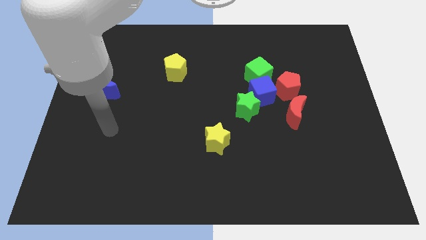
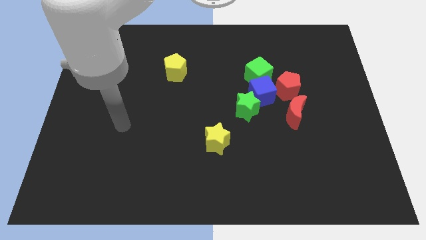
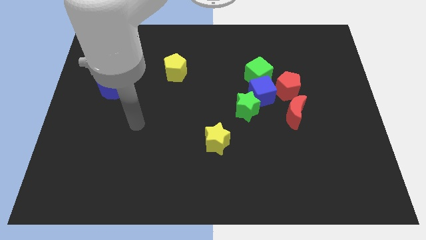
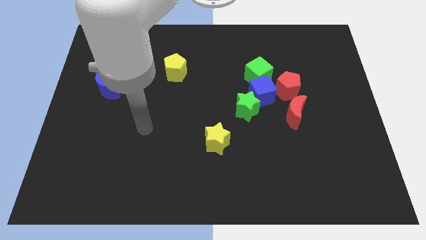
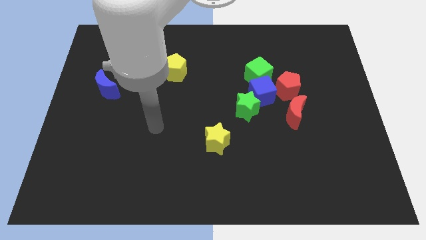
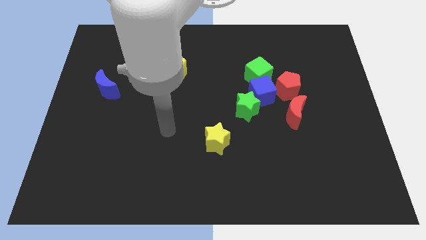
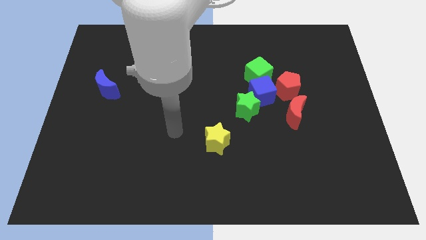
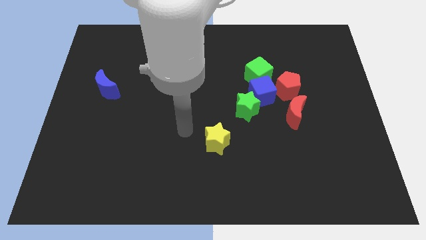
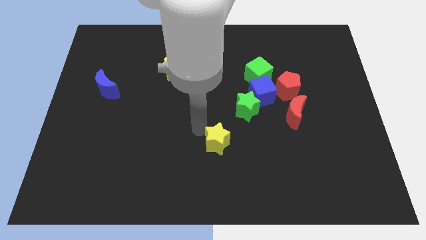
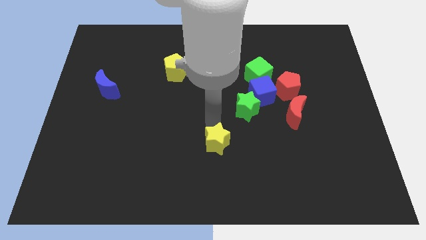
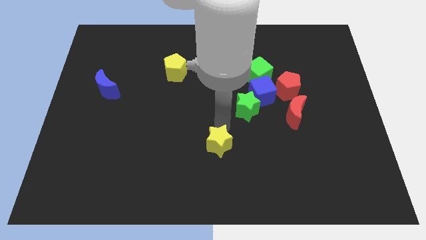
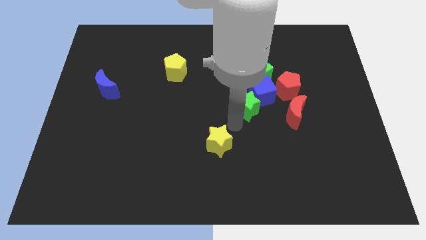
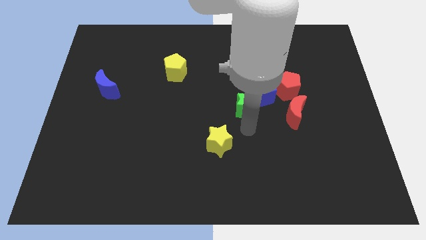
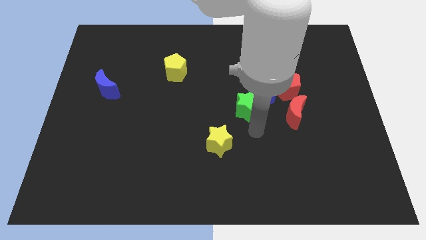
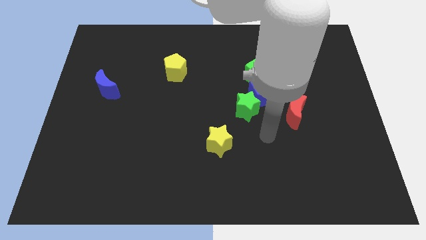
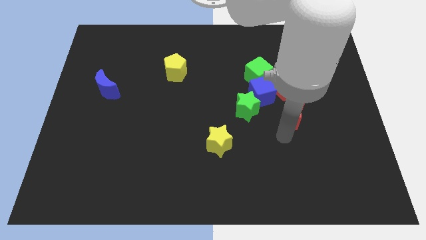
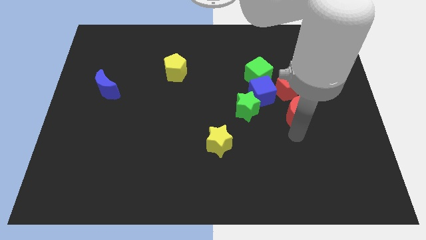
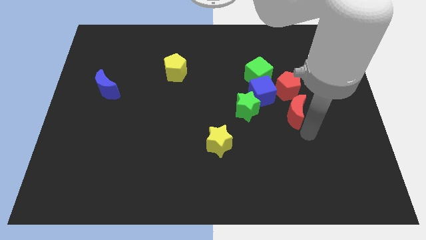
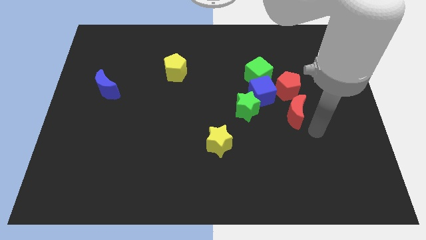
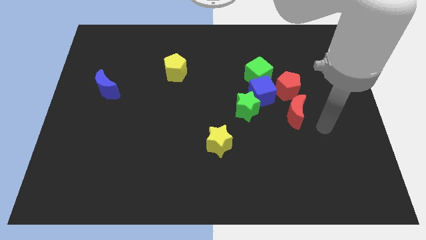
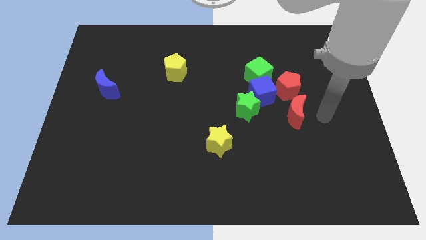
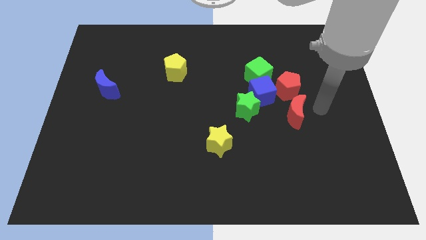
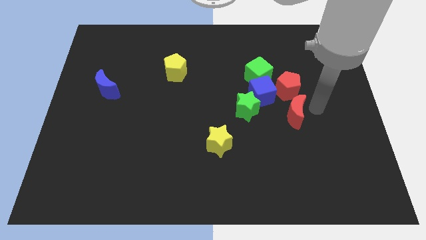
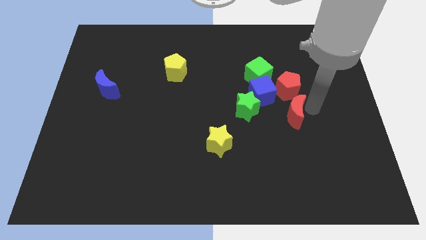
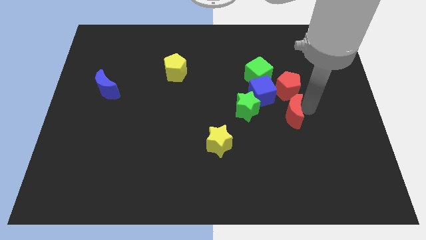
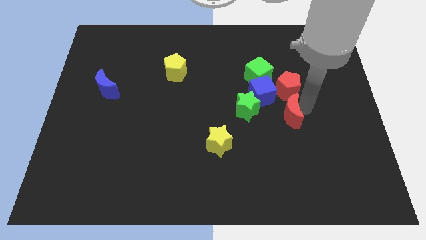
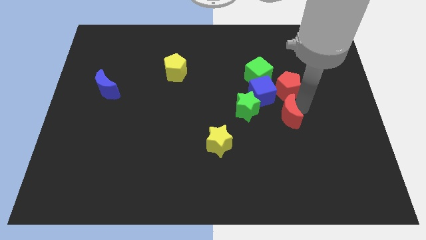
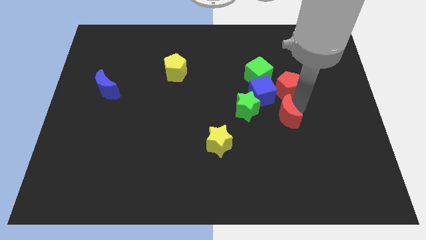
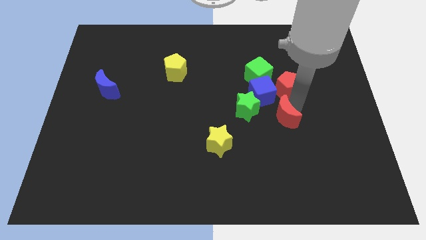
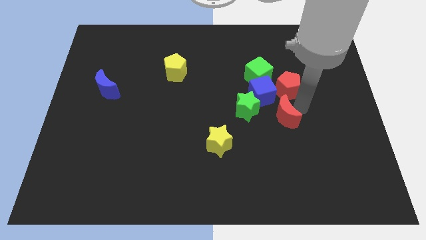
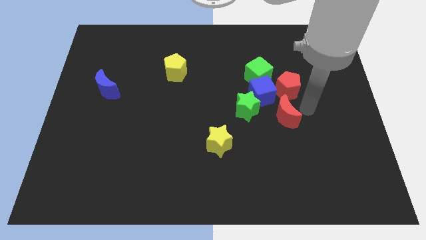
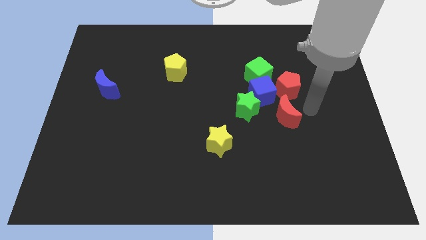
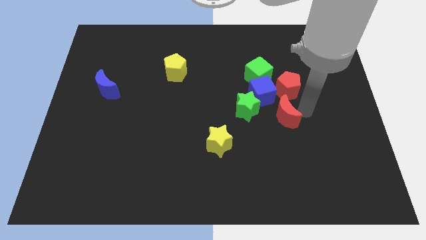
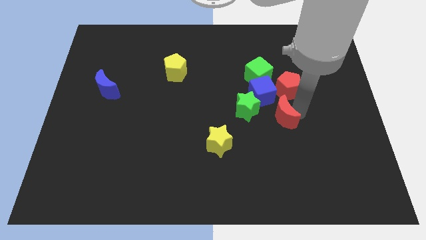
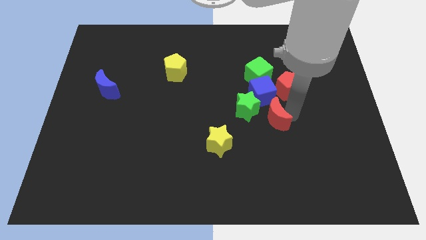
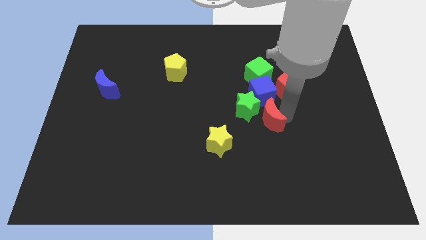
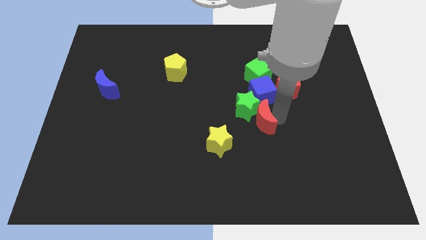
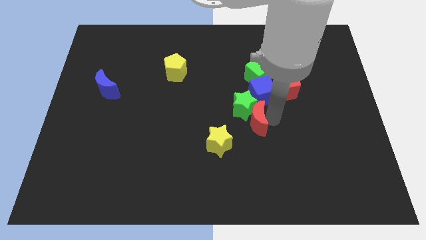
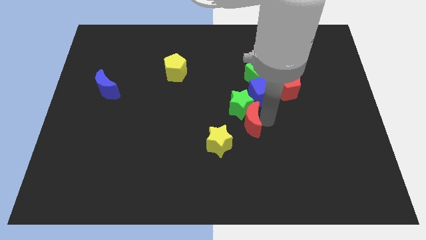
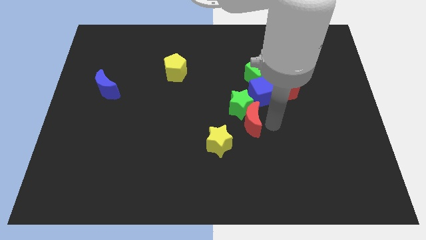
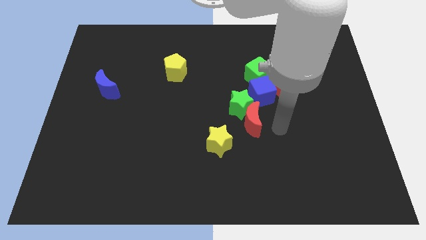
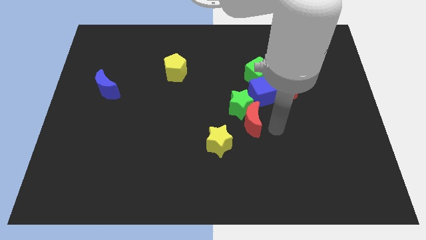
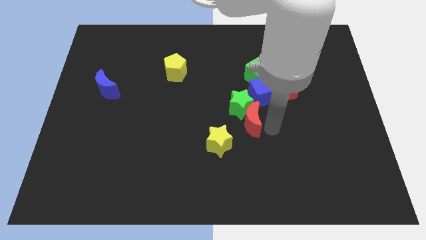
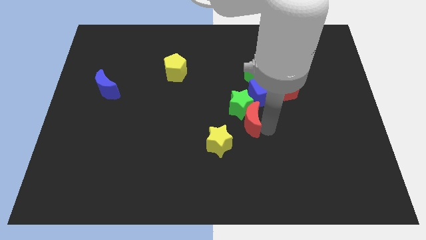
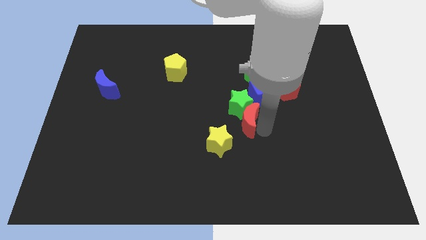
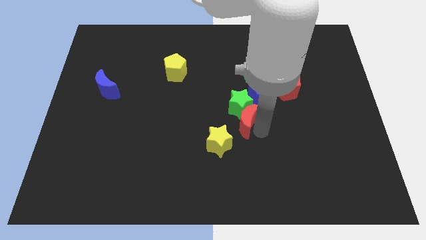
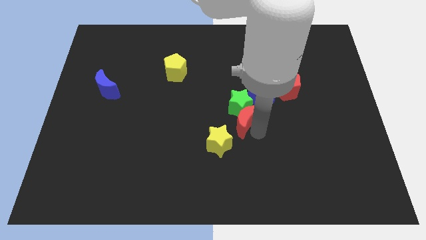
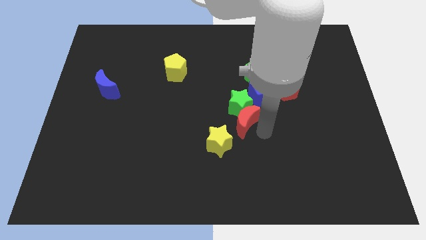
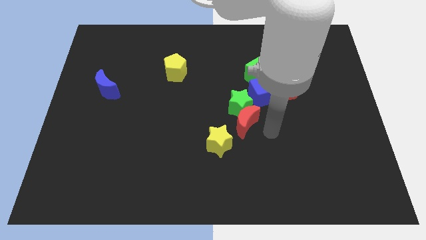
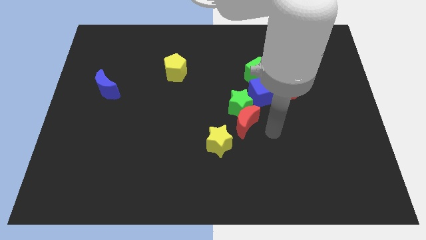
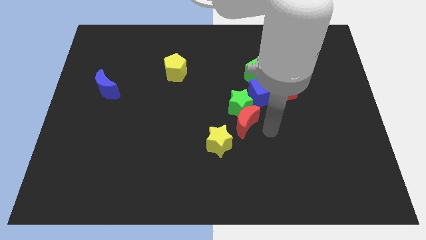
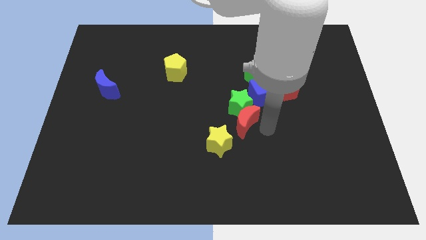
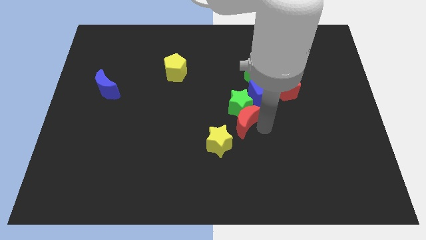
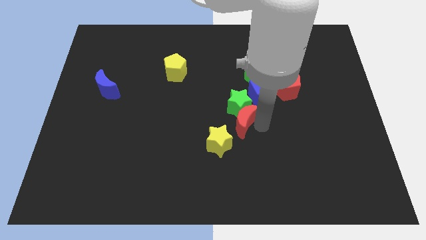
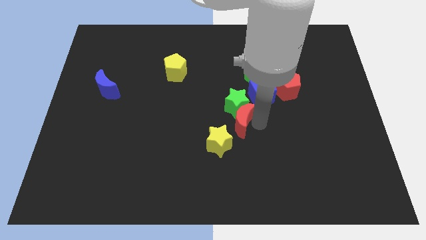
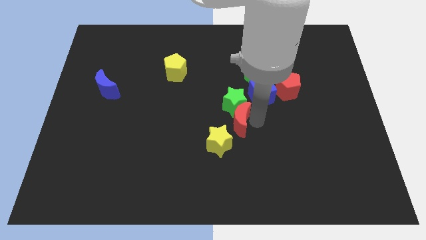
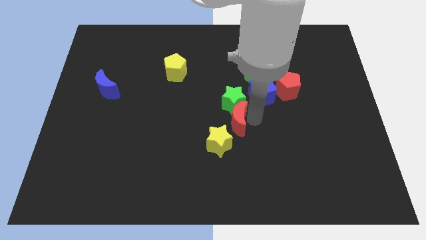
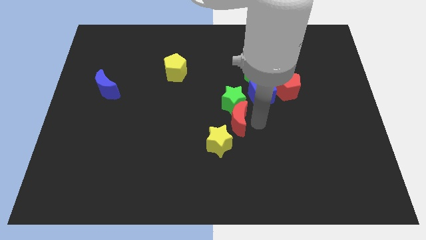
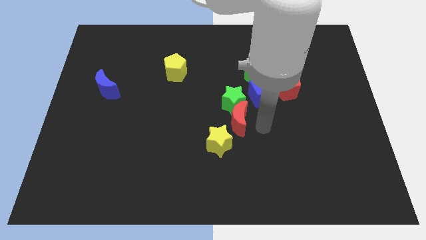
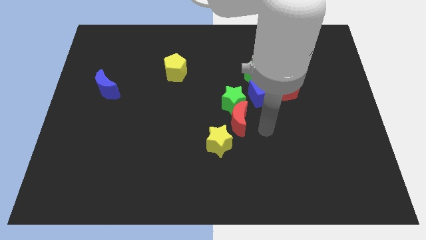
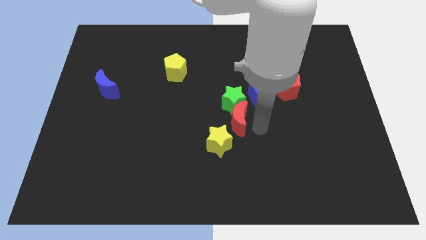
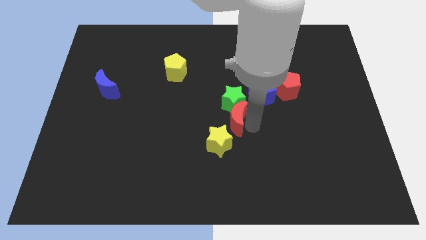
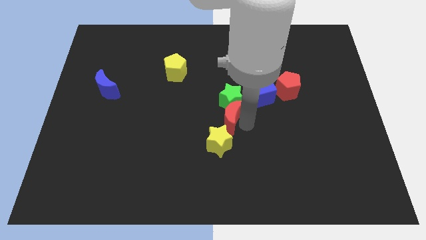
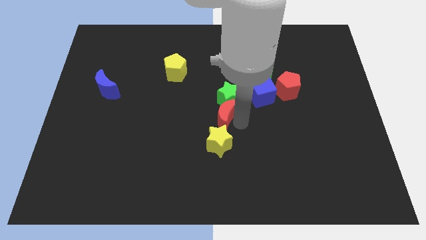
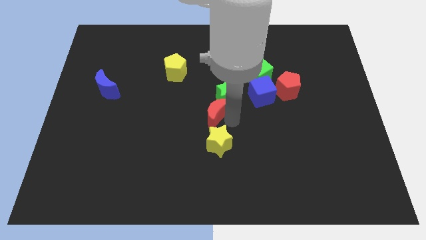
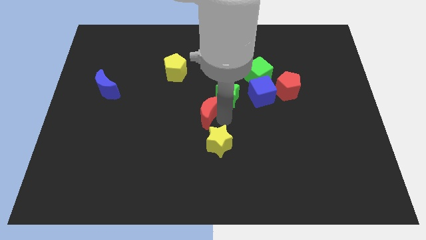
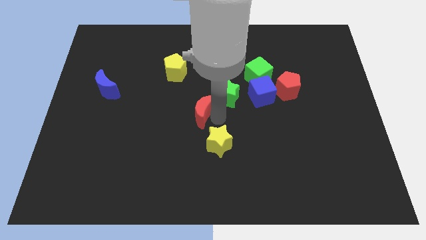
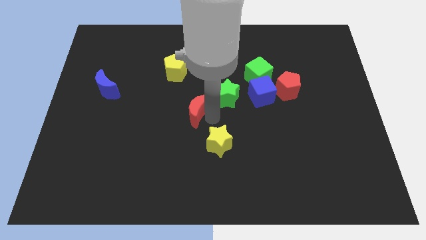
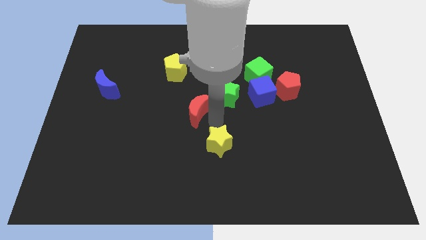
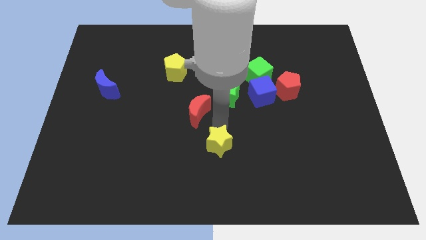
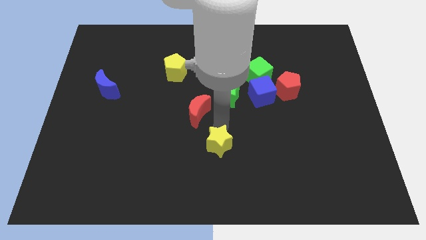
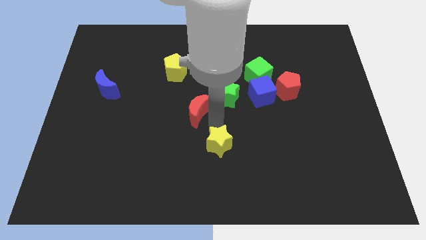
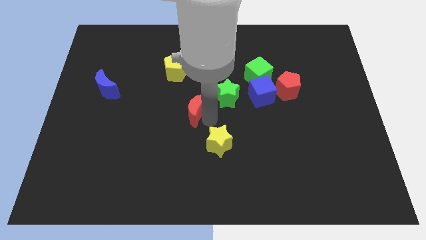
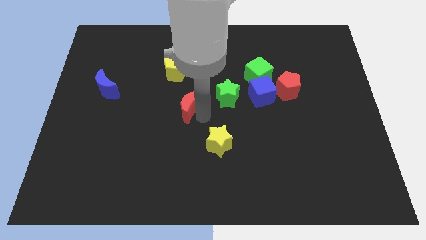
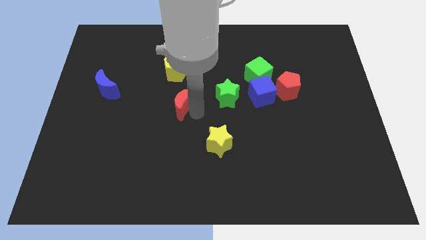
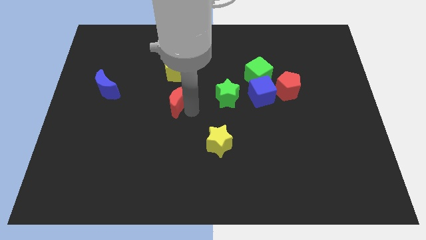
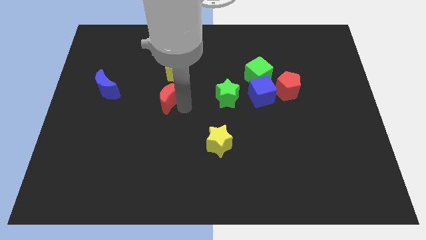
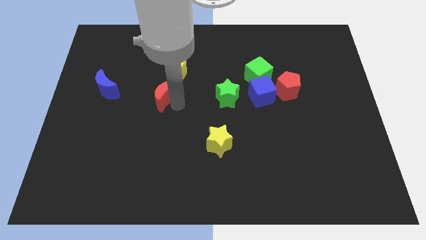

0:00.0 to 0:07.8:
slide the red moon to the bottom left of the yellow pentagon
